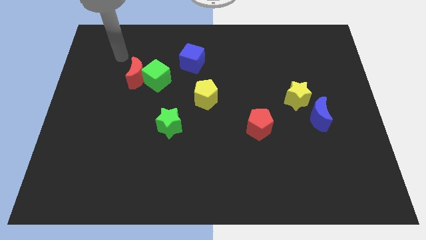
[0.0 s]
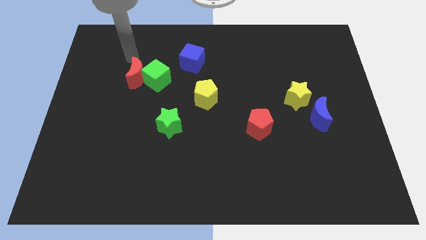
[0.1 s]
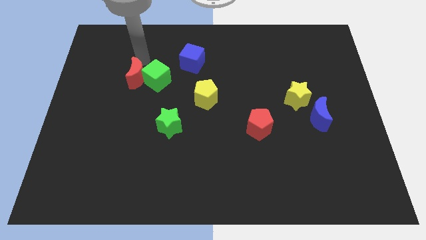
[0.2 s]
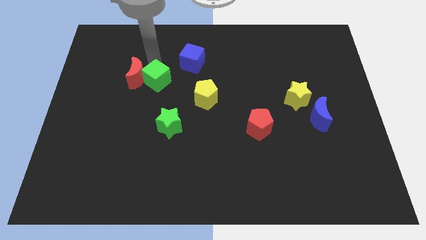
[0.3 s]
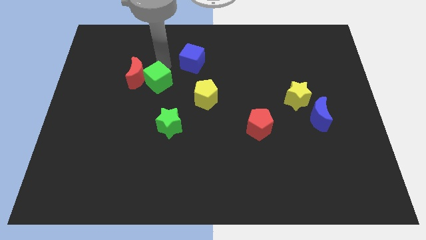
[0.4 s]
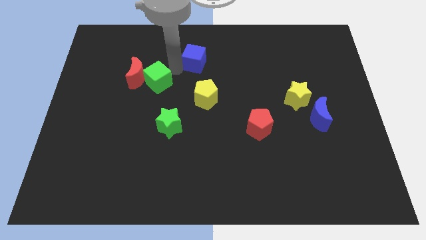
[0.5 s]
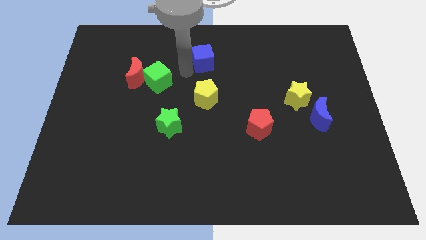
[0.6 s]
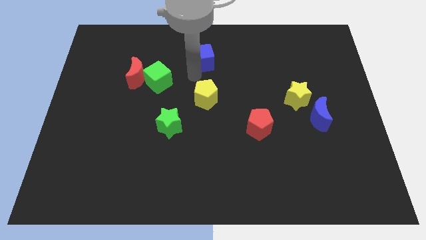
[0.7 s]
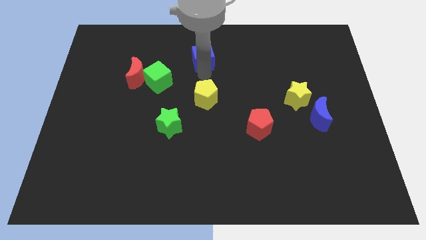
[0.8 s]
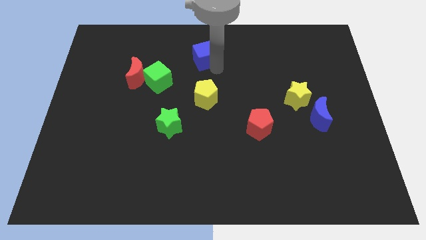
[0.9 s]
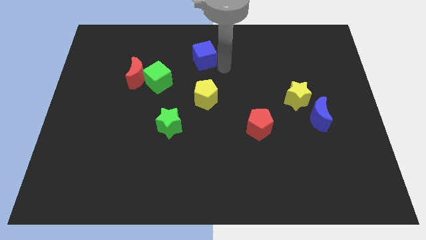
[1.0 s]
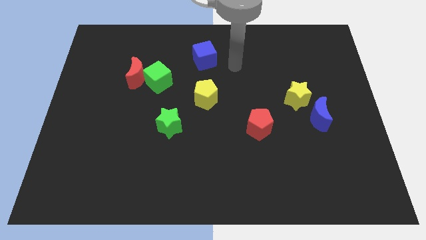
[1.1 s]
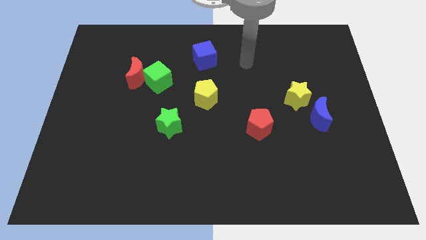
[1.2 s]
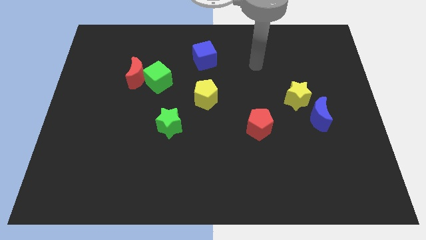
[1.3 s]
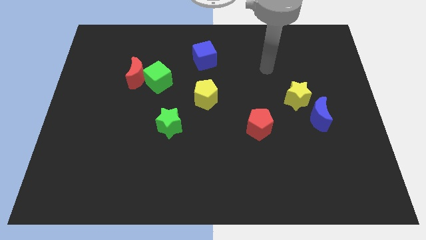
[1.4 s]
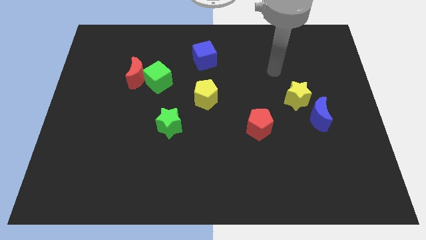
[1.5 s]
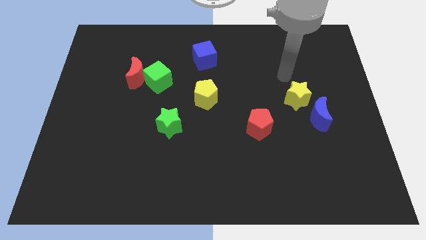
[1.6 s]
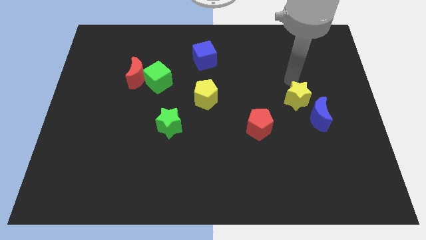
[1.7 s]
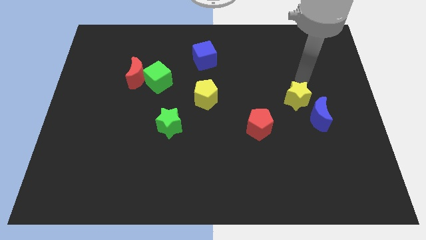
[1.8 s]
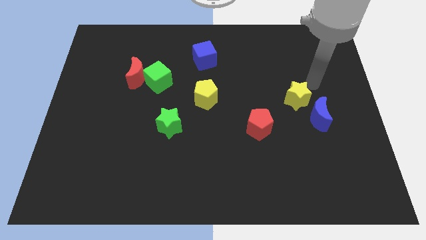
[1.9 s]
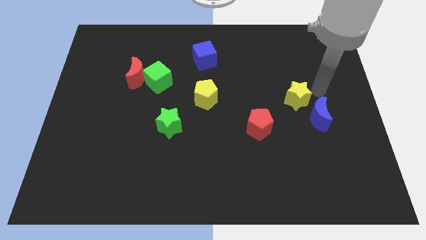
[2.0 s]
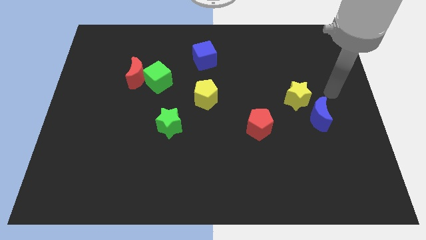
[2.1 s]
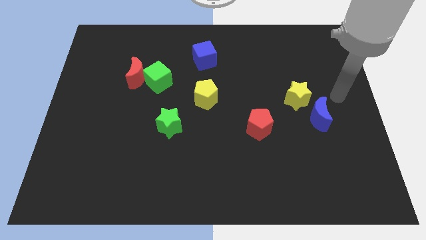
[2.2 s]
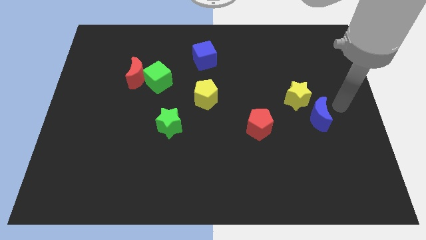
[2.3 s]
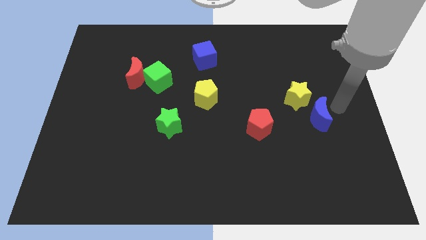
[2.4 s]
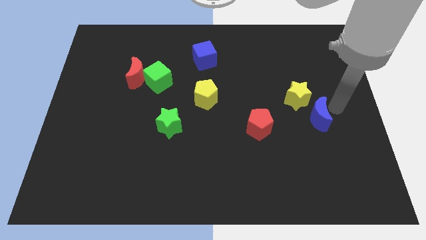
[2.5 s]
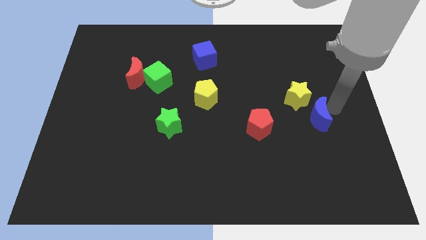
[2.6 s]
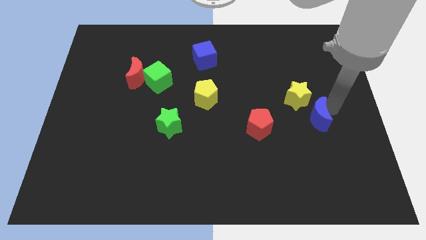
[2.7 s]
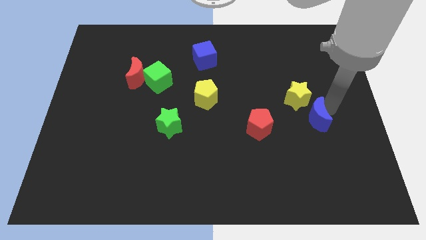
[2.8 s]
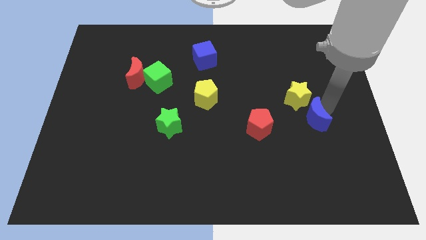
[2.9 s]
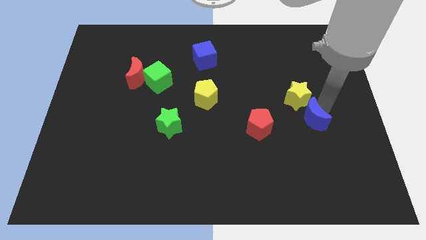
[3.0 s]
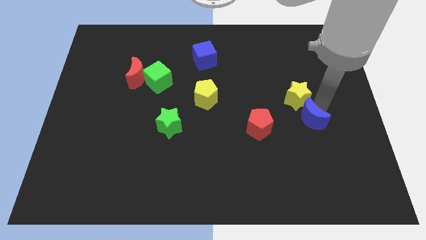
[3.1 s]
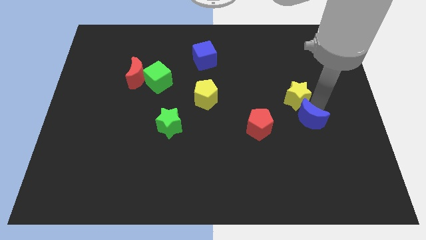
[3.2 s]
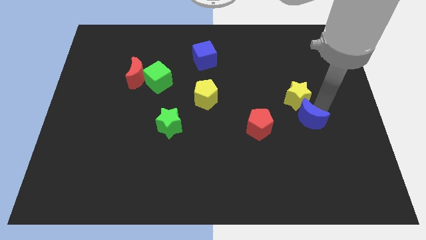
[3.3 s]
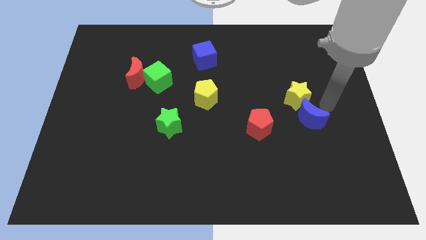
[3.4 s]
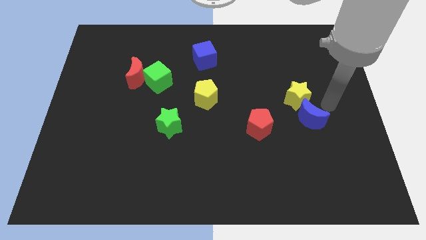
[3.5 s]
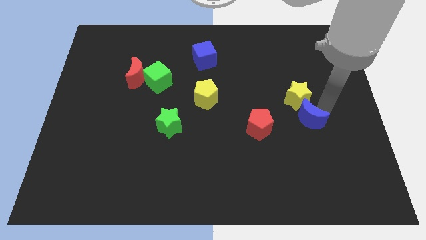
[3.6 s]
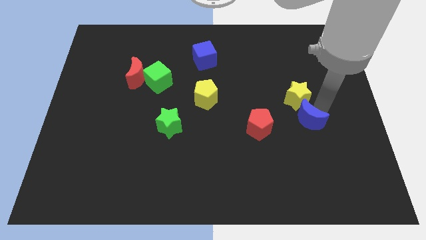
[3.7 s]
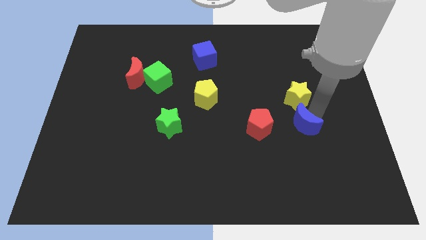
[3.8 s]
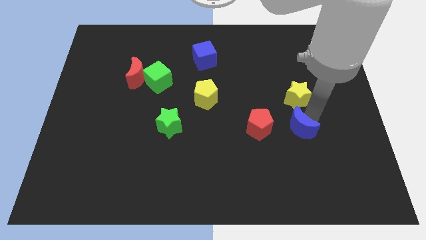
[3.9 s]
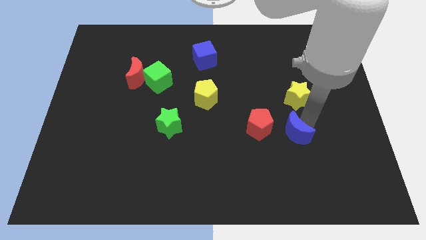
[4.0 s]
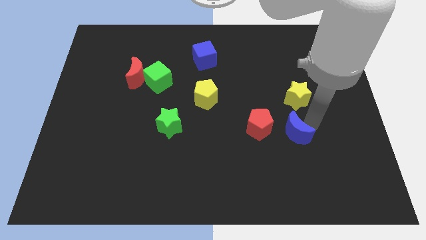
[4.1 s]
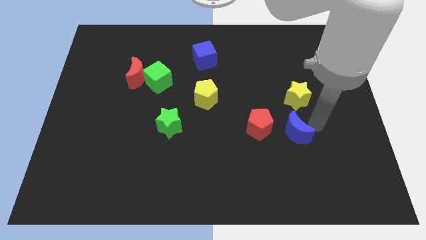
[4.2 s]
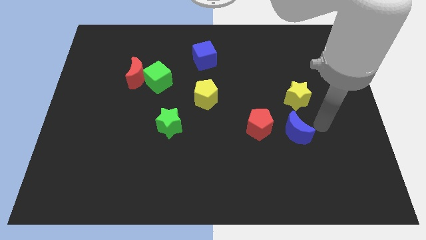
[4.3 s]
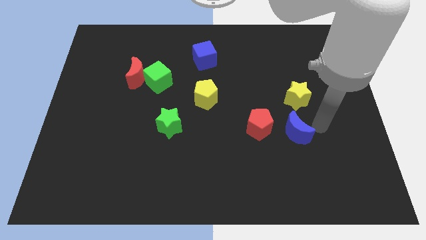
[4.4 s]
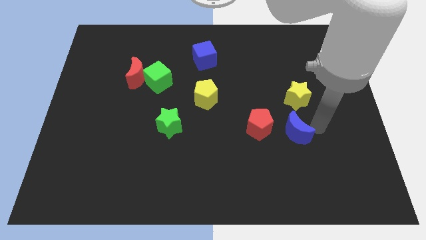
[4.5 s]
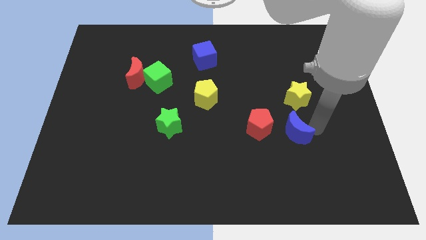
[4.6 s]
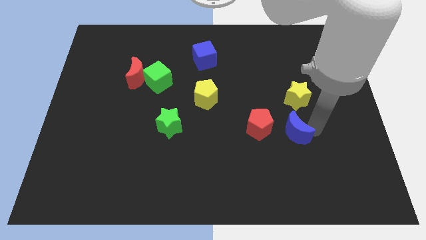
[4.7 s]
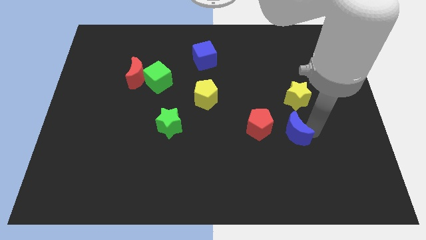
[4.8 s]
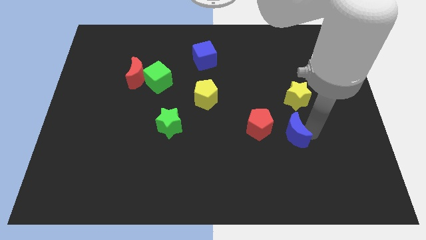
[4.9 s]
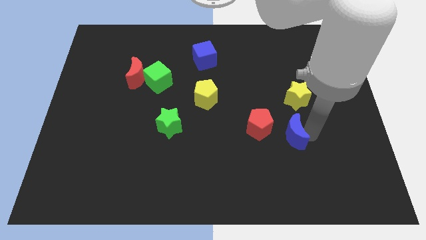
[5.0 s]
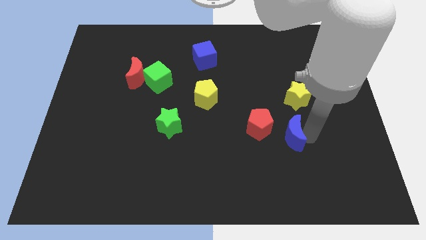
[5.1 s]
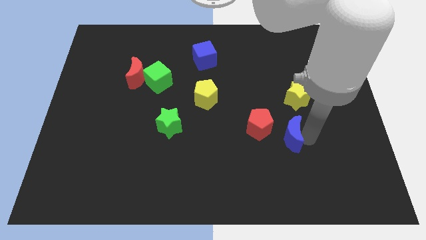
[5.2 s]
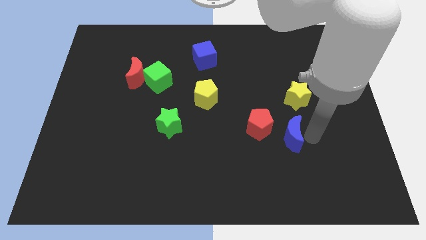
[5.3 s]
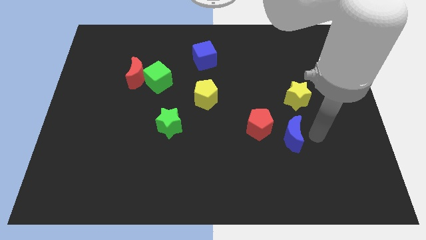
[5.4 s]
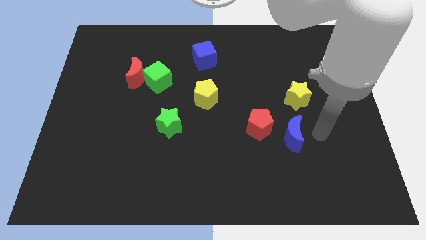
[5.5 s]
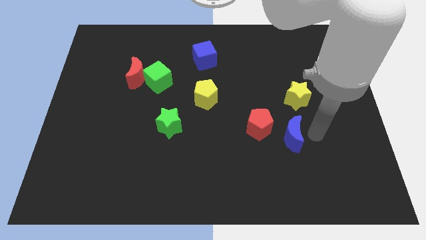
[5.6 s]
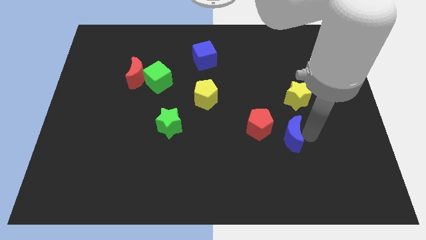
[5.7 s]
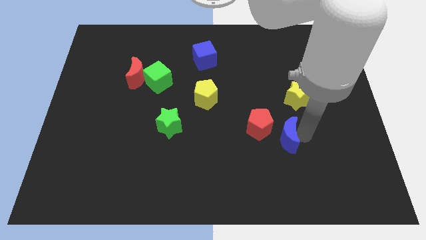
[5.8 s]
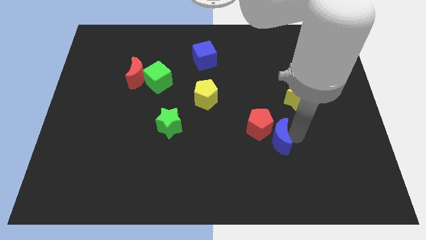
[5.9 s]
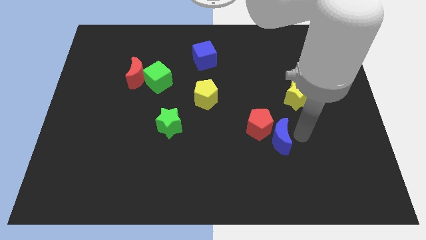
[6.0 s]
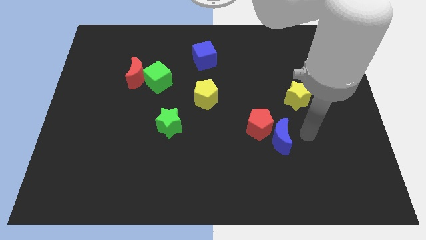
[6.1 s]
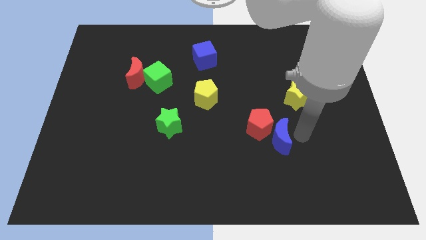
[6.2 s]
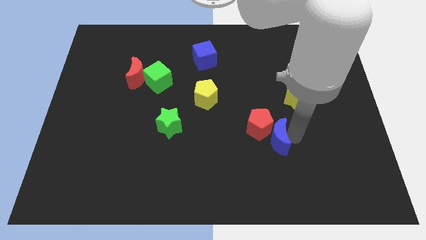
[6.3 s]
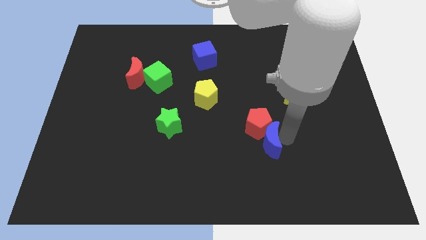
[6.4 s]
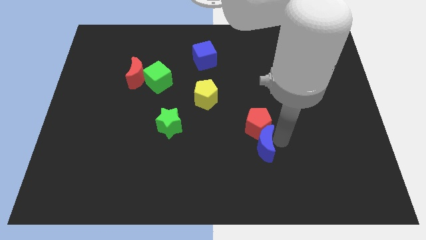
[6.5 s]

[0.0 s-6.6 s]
move the blue moon to the bottom left side of the red pentagon
